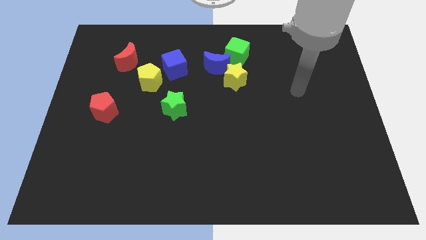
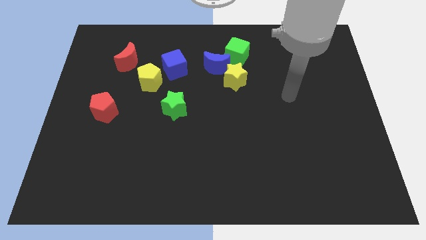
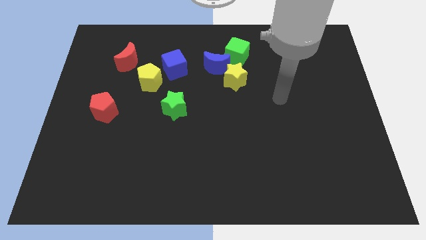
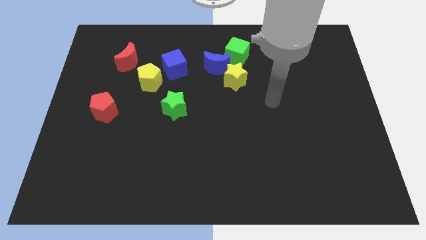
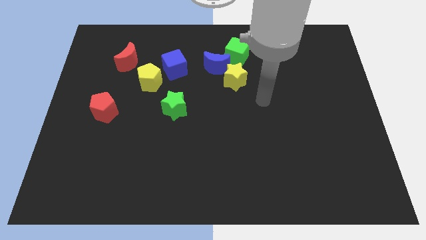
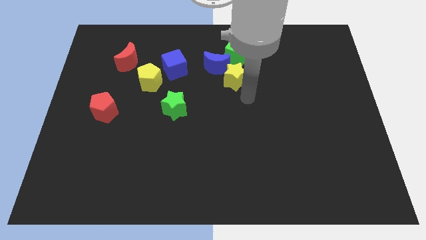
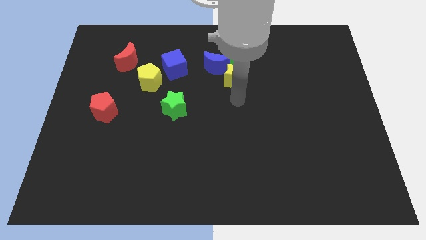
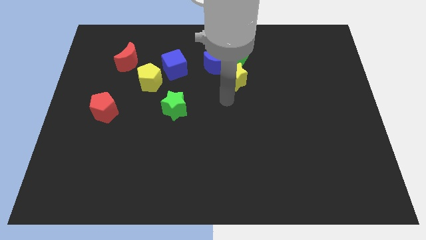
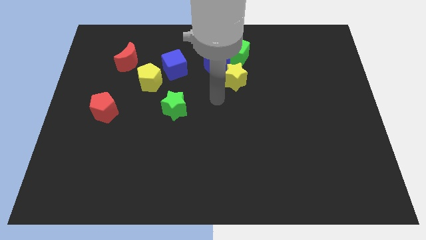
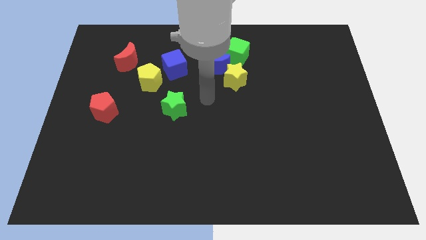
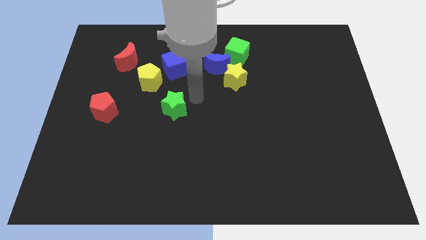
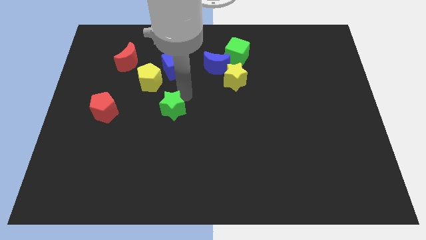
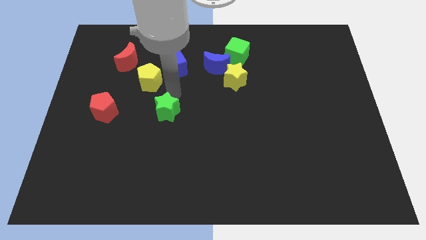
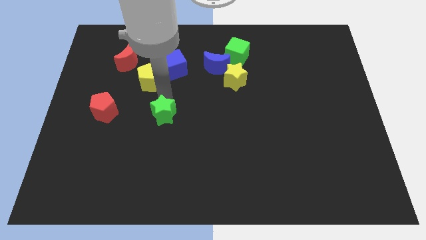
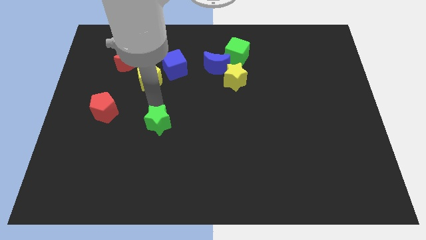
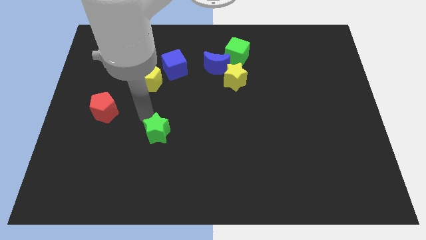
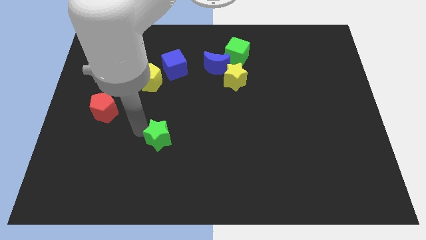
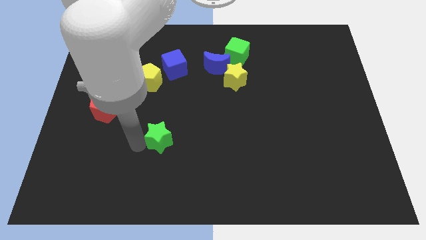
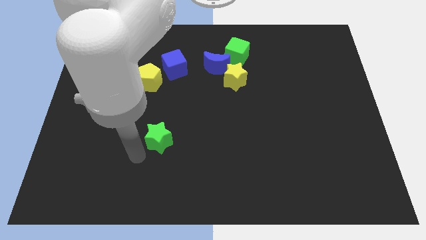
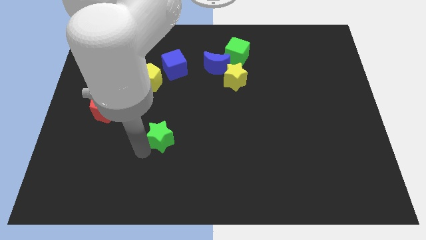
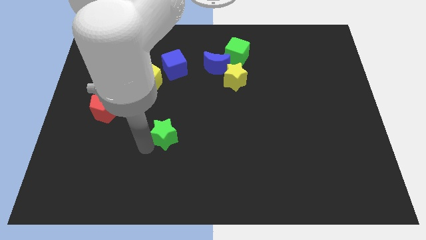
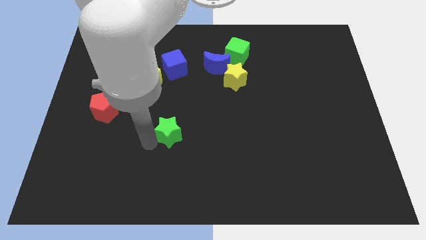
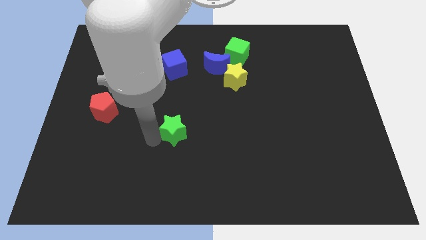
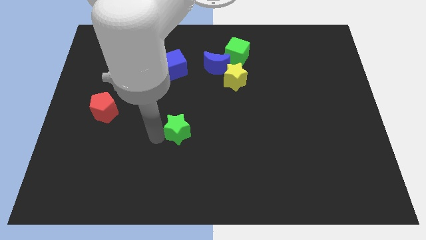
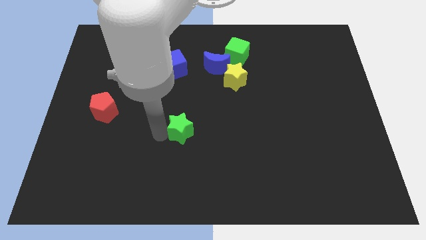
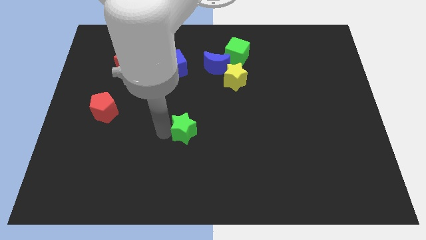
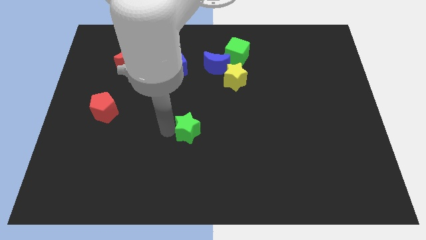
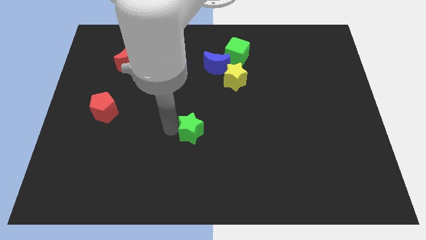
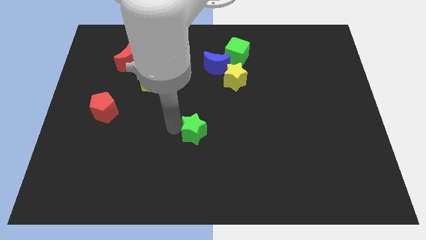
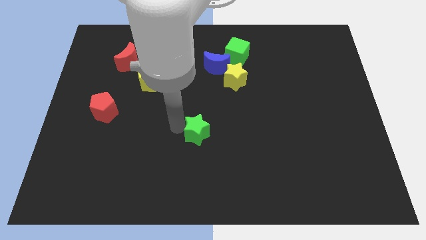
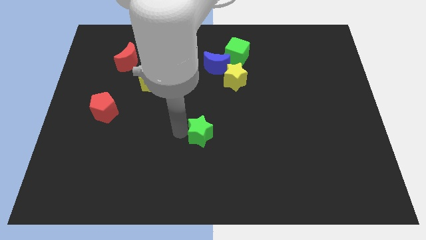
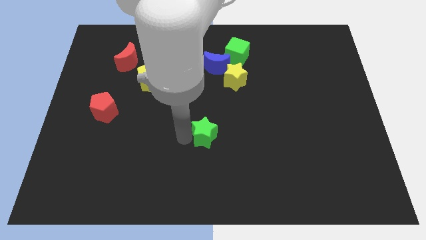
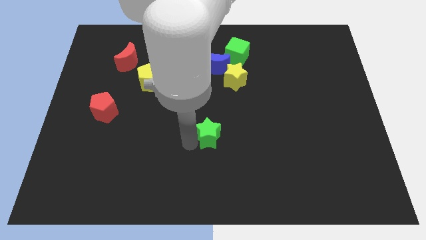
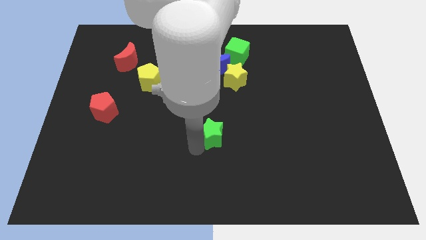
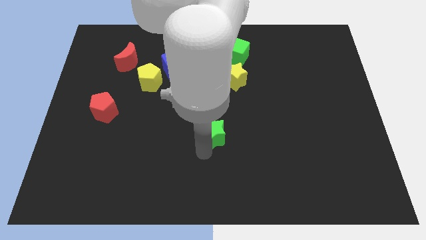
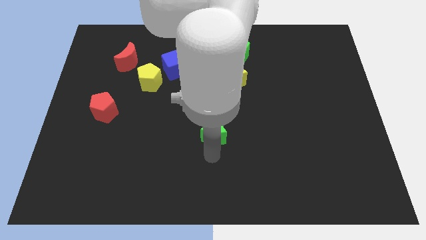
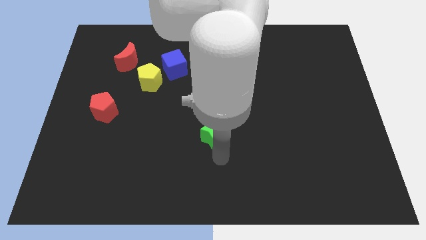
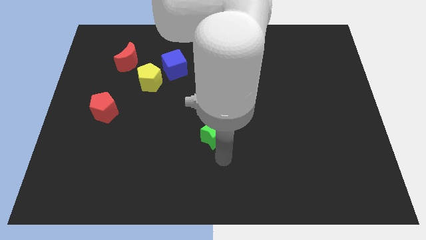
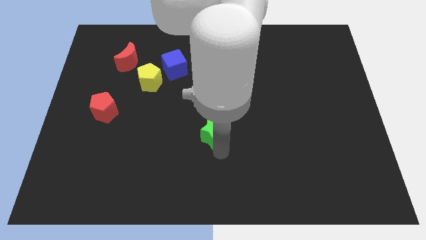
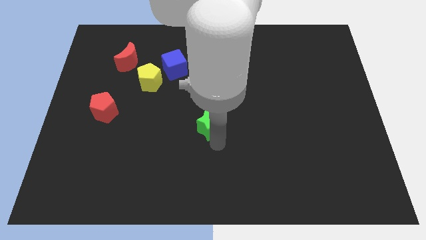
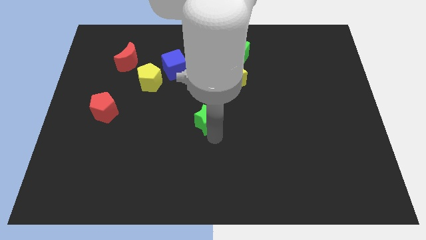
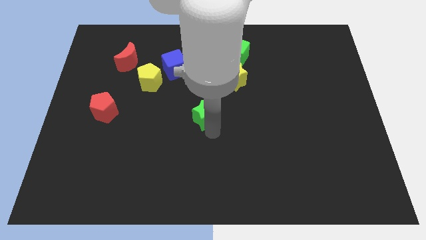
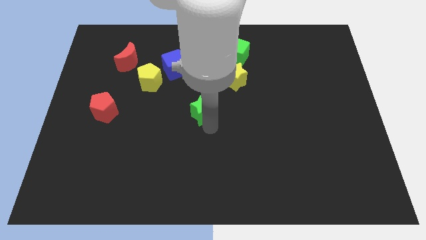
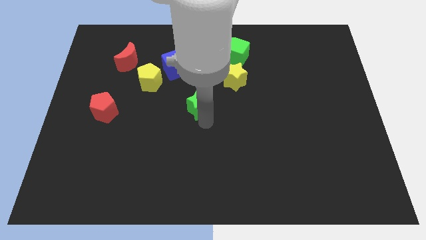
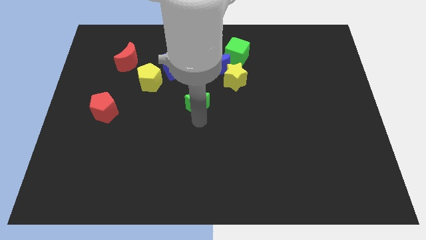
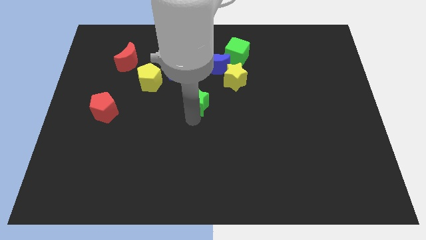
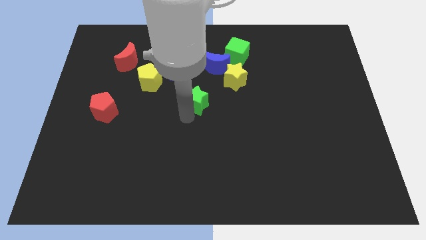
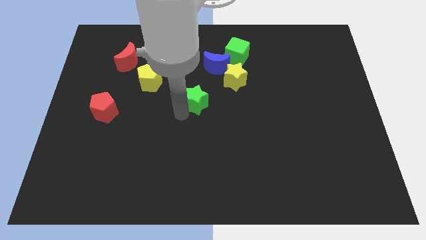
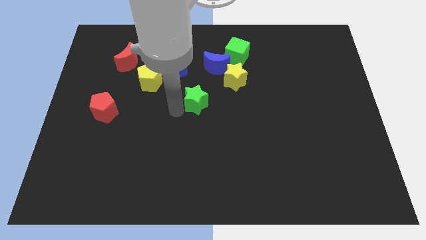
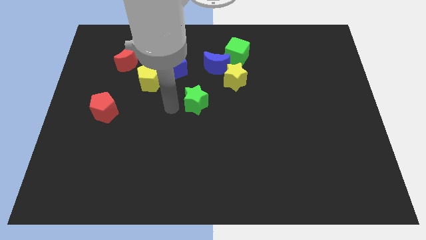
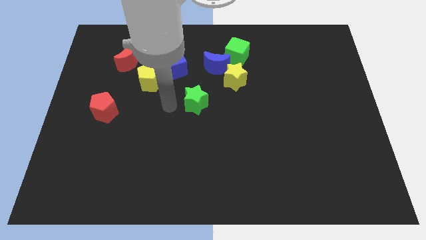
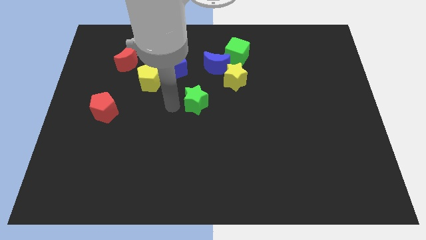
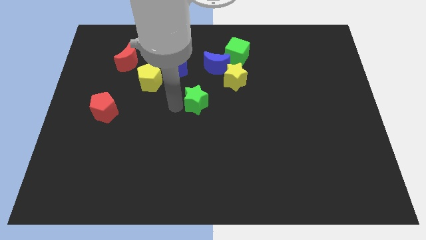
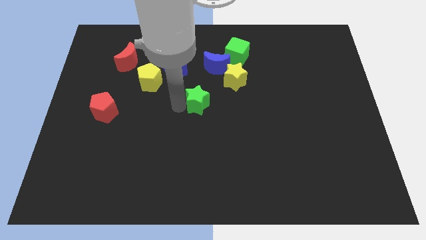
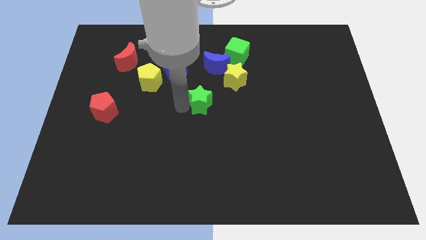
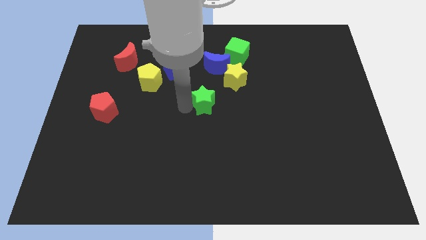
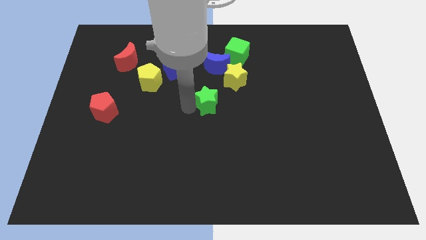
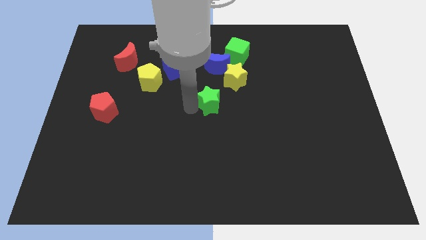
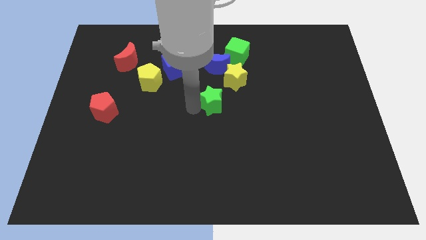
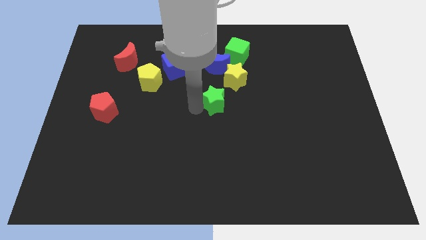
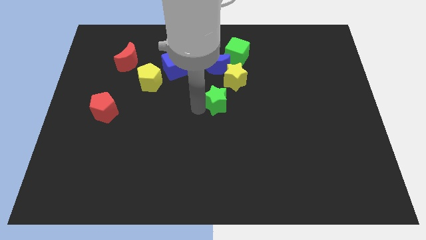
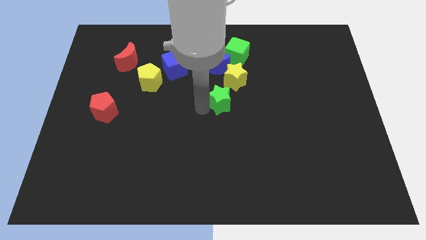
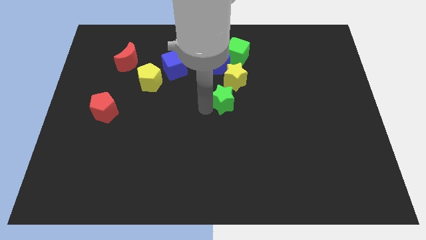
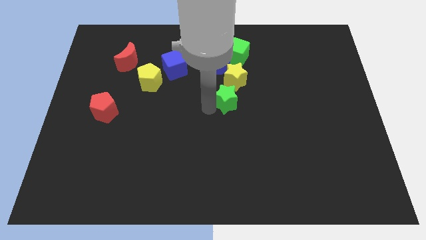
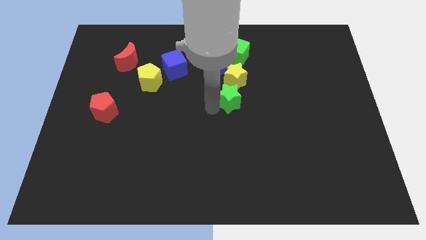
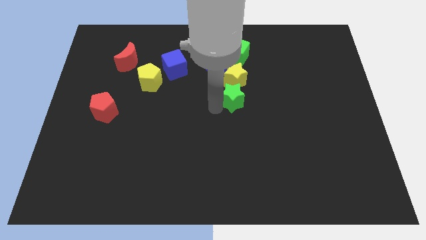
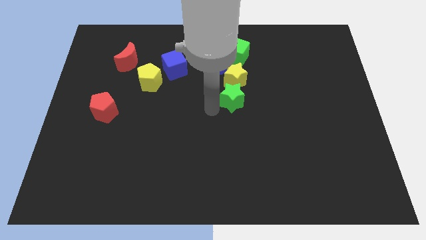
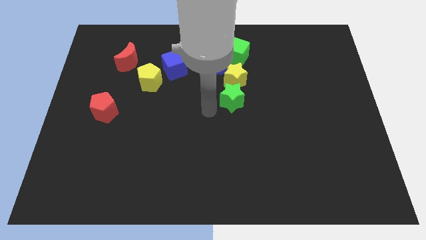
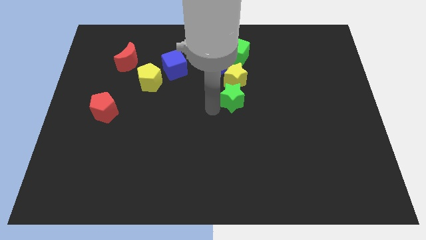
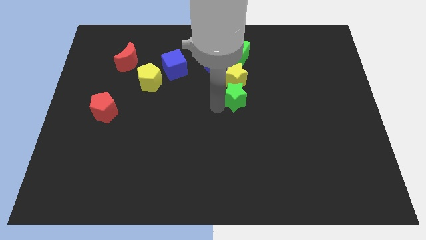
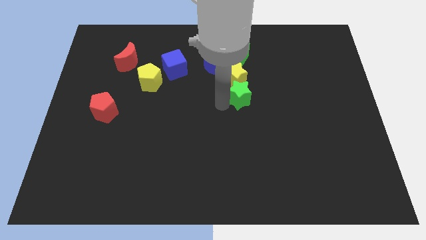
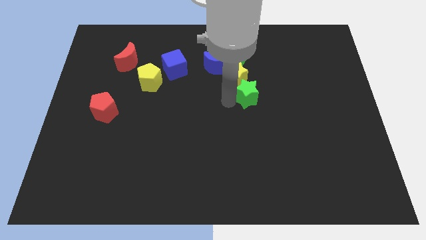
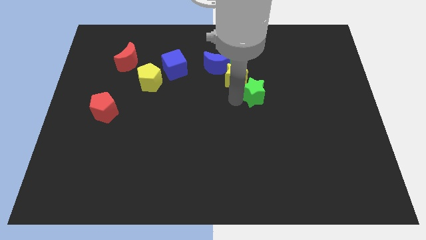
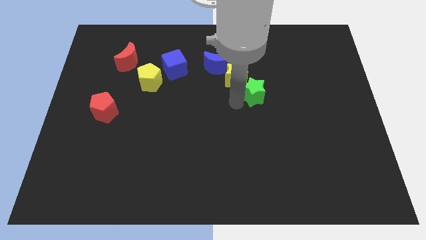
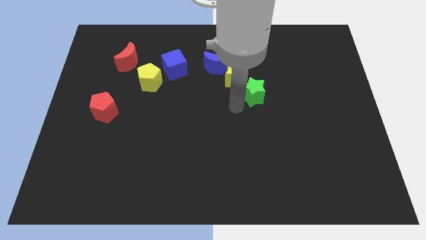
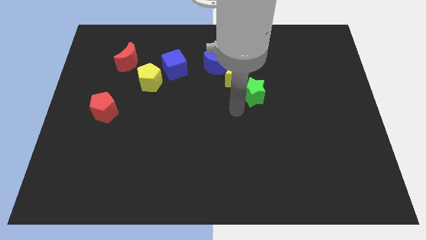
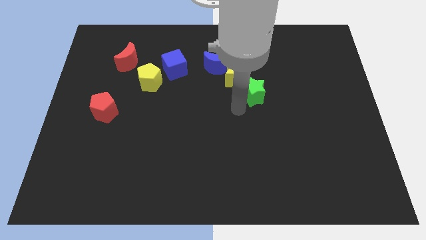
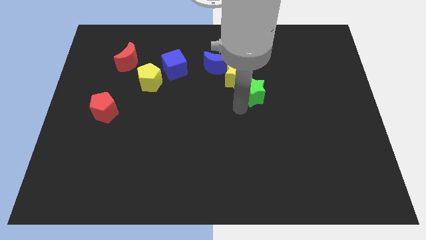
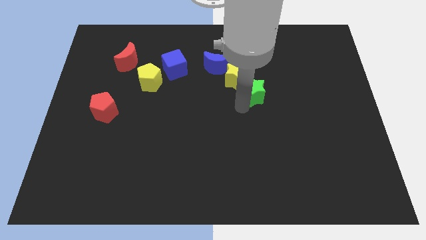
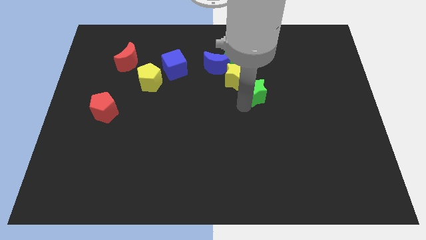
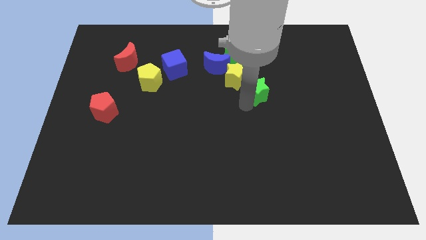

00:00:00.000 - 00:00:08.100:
push the green star just right of the yellow star
